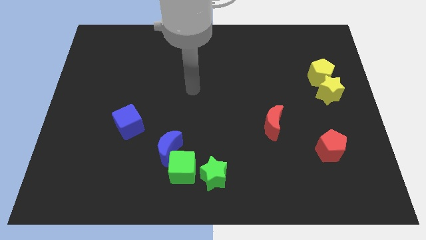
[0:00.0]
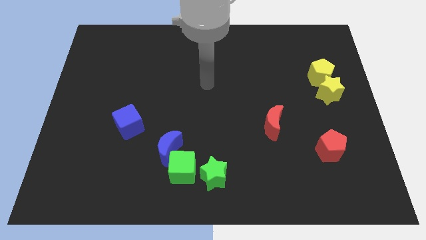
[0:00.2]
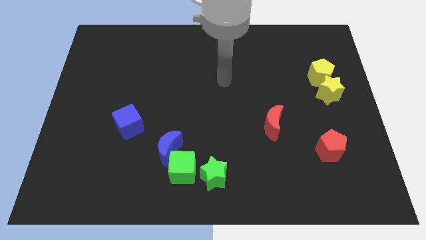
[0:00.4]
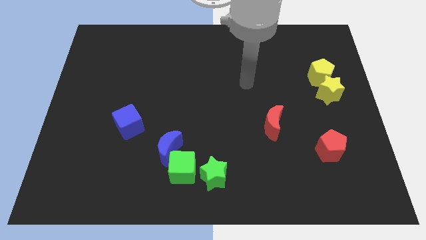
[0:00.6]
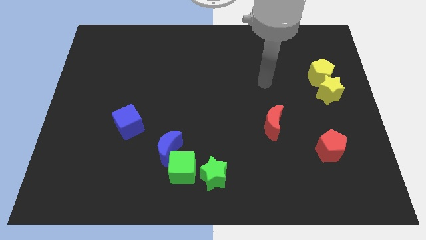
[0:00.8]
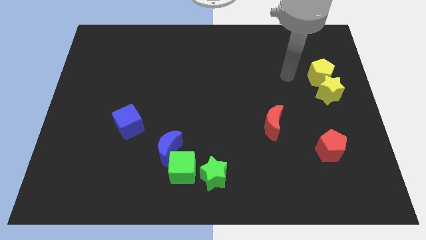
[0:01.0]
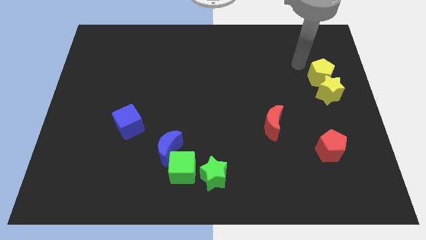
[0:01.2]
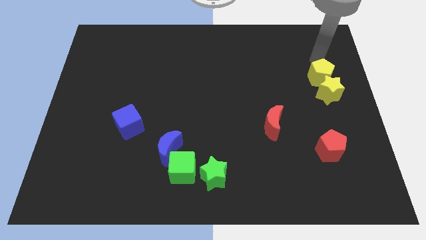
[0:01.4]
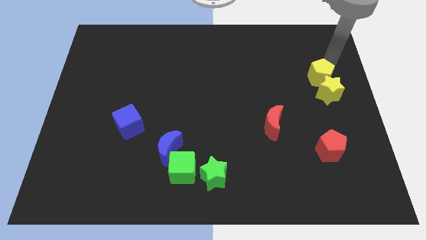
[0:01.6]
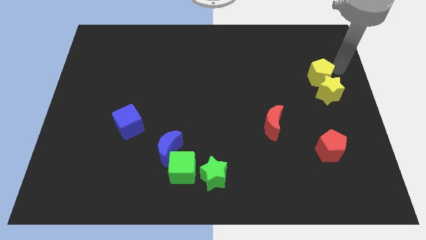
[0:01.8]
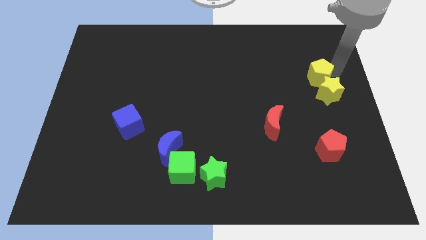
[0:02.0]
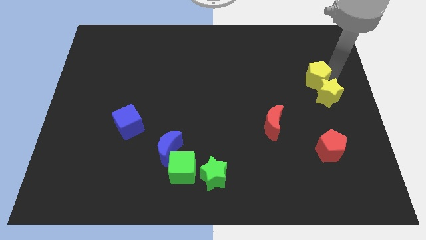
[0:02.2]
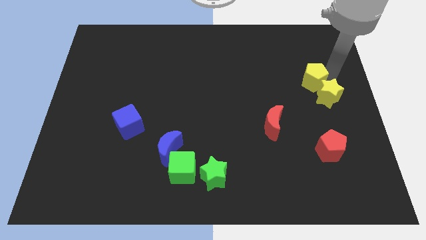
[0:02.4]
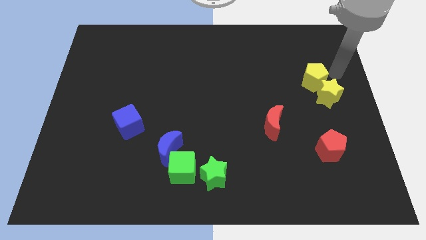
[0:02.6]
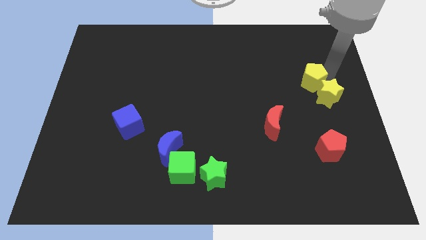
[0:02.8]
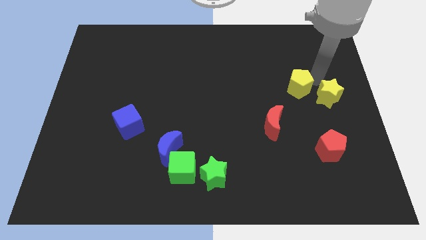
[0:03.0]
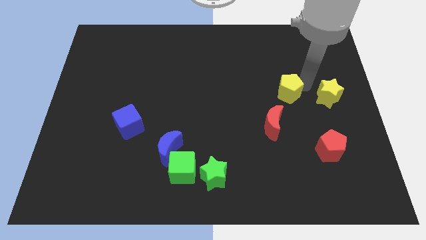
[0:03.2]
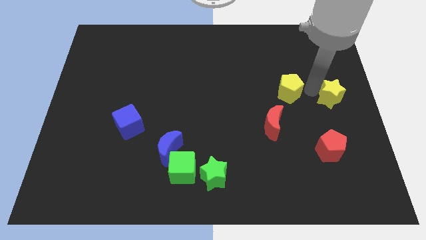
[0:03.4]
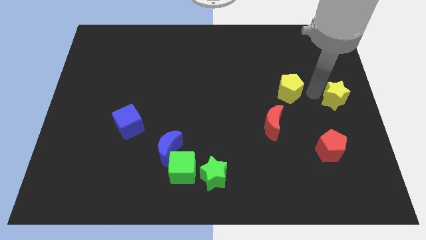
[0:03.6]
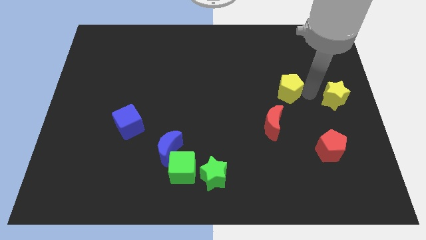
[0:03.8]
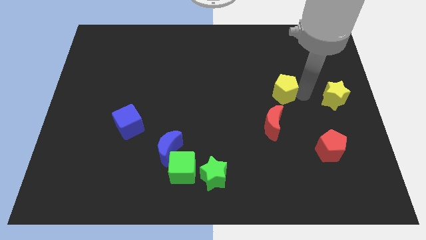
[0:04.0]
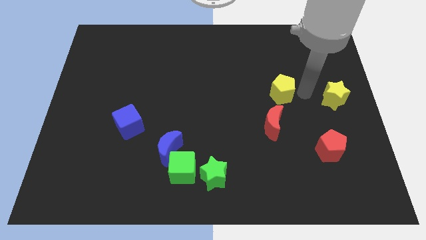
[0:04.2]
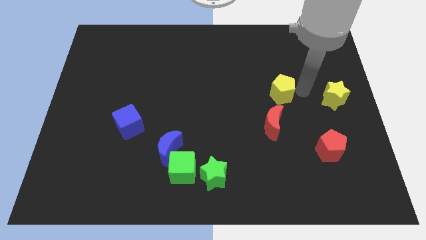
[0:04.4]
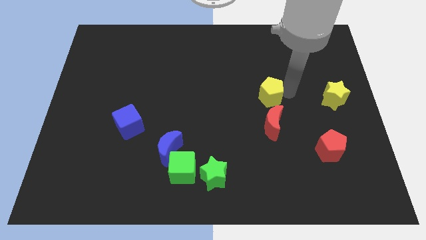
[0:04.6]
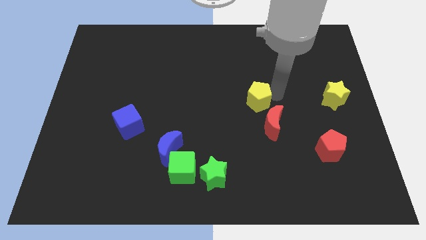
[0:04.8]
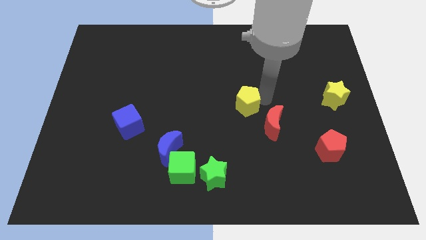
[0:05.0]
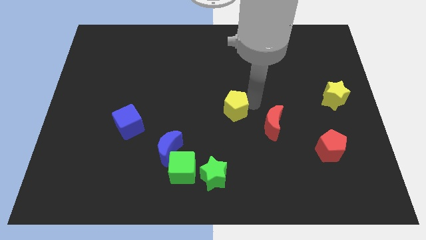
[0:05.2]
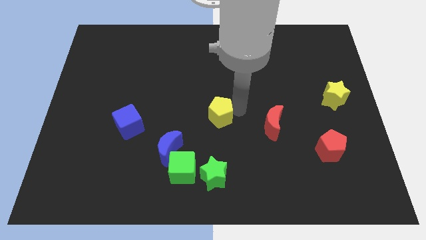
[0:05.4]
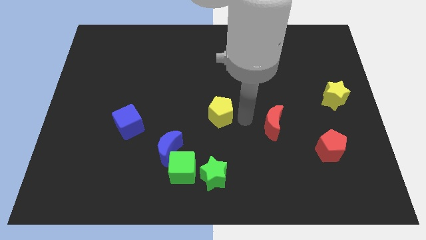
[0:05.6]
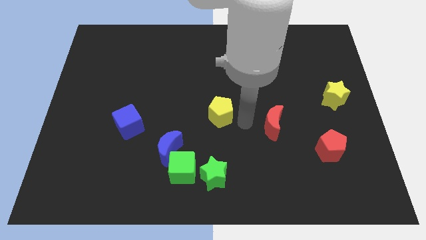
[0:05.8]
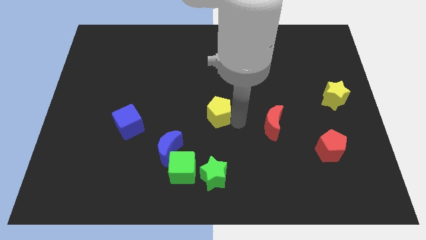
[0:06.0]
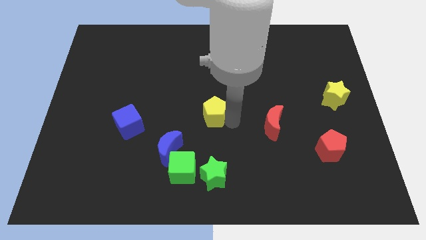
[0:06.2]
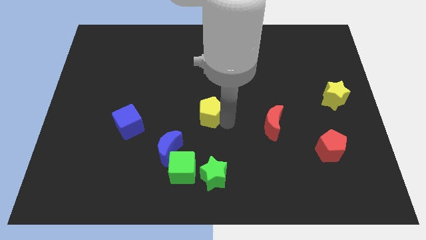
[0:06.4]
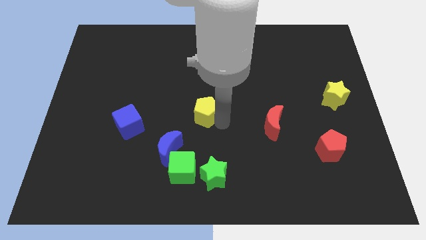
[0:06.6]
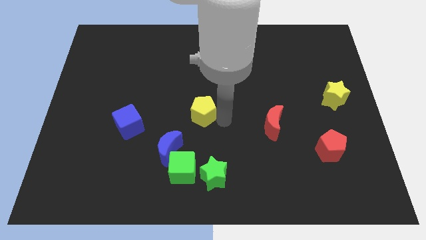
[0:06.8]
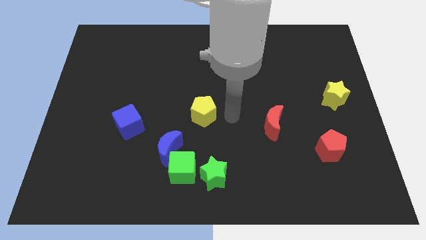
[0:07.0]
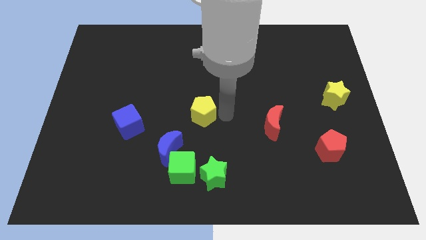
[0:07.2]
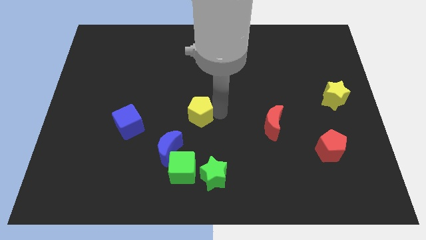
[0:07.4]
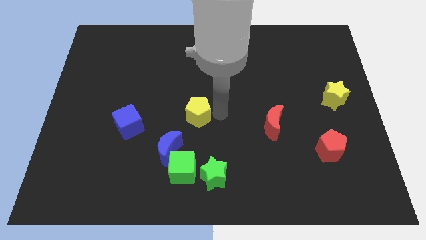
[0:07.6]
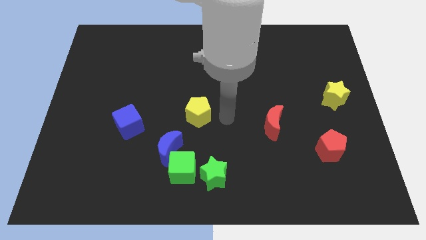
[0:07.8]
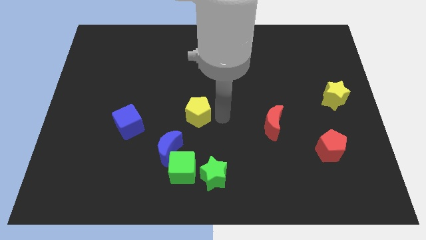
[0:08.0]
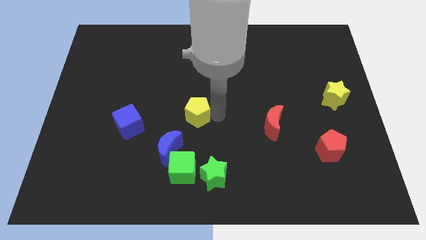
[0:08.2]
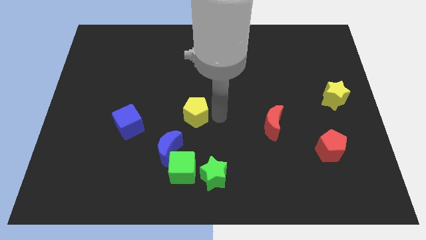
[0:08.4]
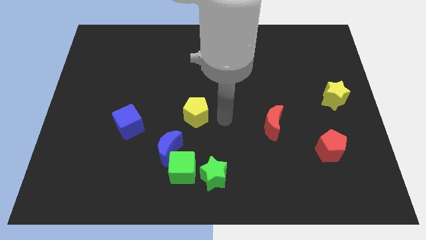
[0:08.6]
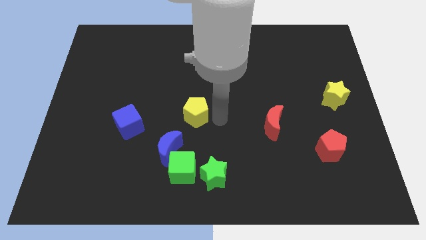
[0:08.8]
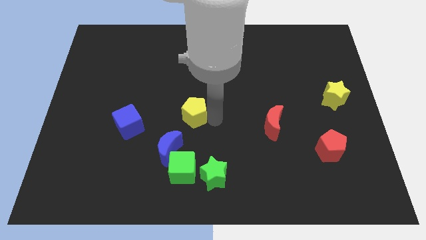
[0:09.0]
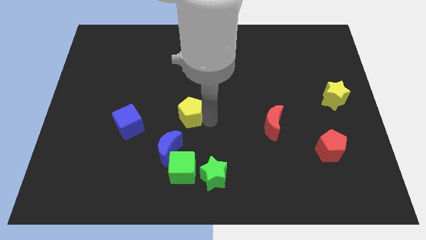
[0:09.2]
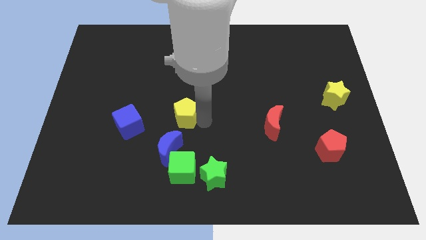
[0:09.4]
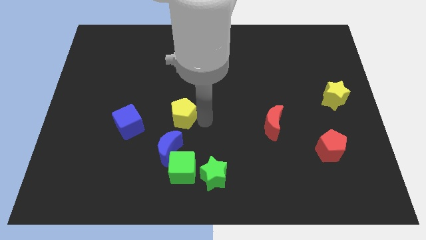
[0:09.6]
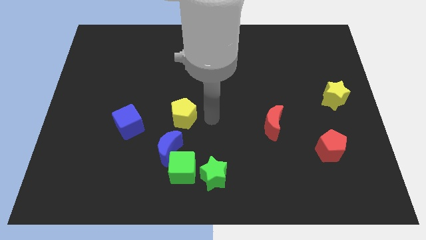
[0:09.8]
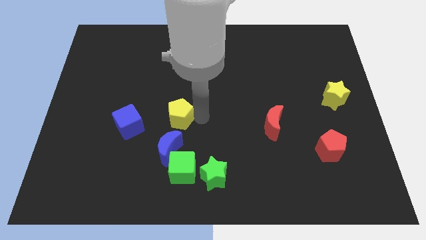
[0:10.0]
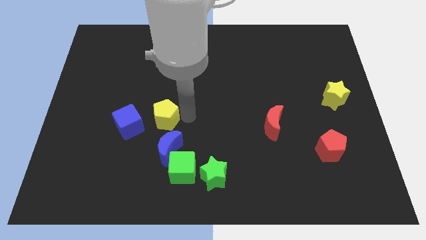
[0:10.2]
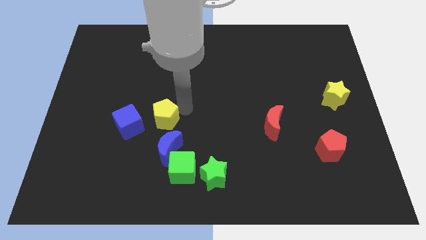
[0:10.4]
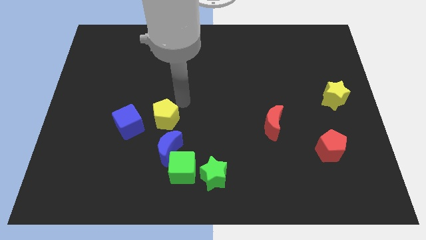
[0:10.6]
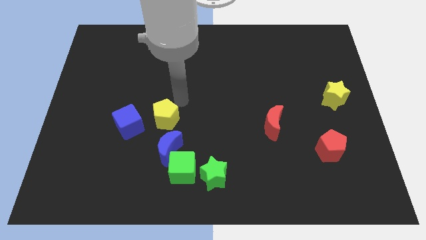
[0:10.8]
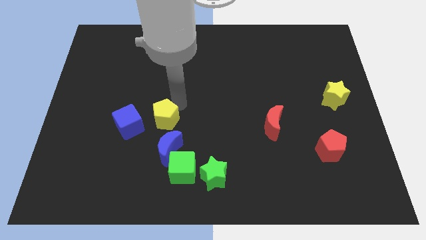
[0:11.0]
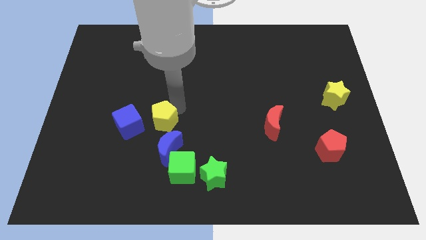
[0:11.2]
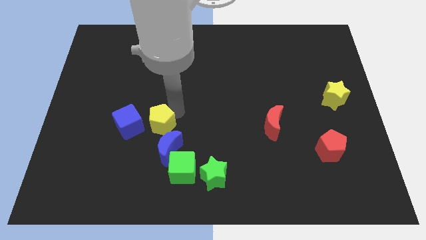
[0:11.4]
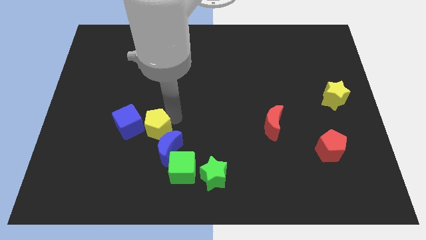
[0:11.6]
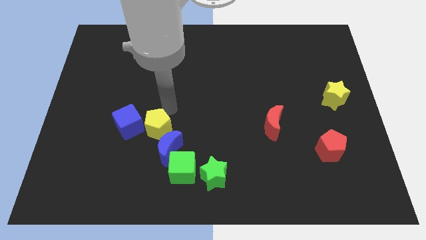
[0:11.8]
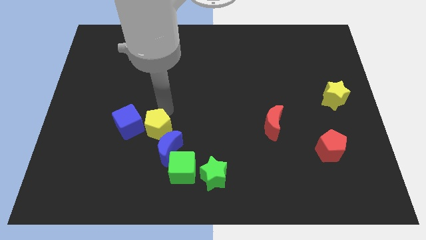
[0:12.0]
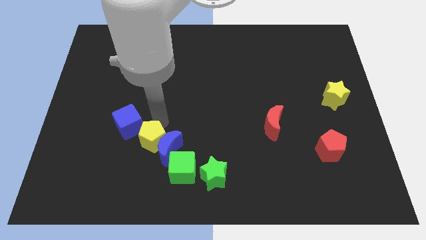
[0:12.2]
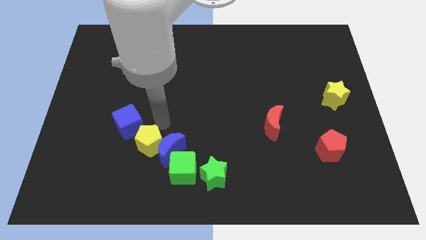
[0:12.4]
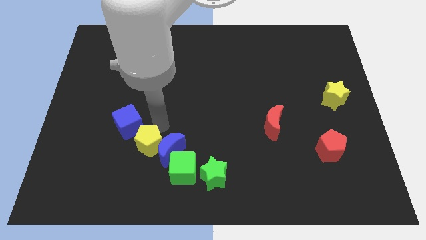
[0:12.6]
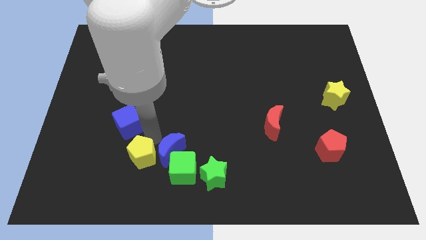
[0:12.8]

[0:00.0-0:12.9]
push the yellow pentagon to the left of the green cube

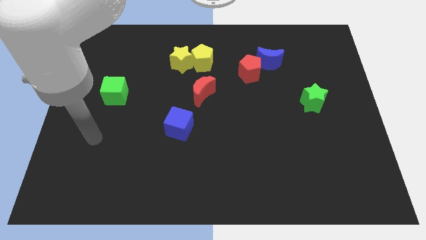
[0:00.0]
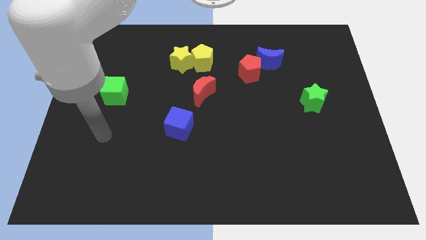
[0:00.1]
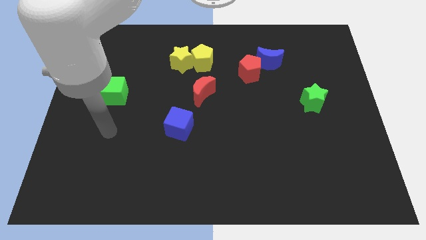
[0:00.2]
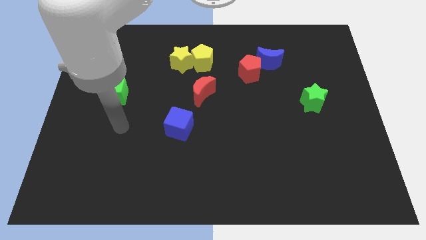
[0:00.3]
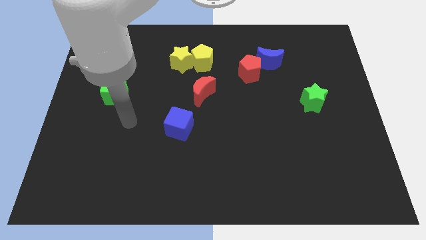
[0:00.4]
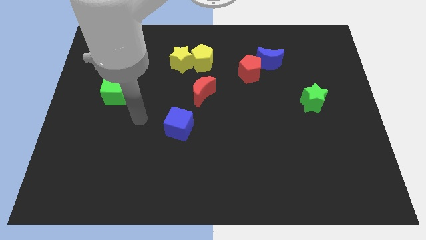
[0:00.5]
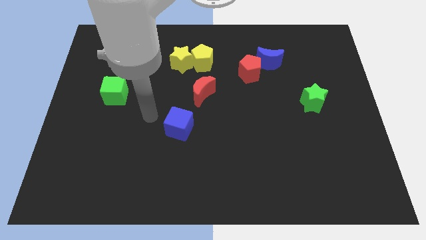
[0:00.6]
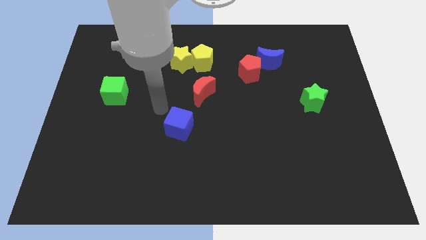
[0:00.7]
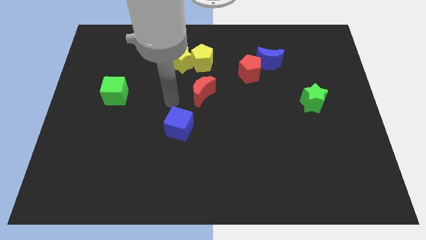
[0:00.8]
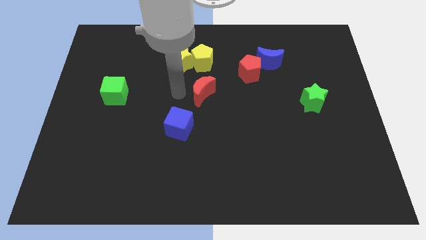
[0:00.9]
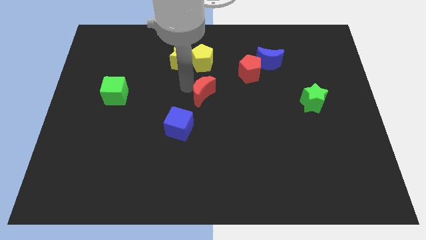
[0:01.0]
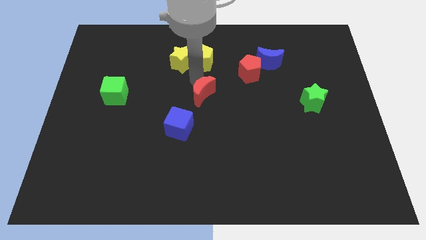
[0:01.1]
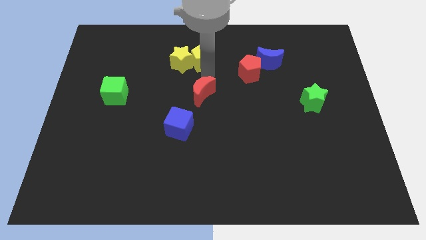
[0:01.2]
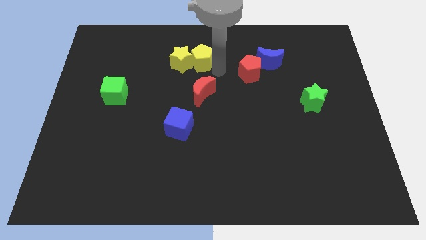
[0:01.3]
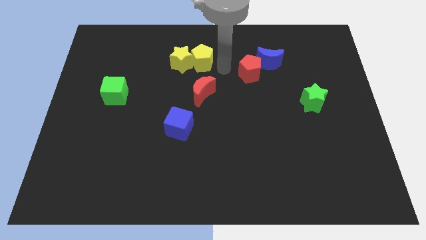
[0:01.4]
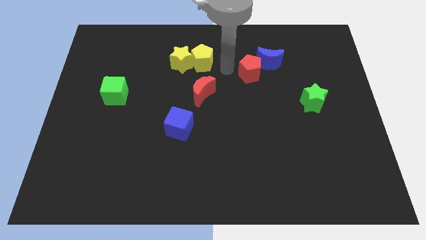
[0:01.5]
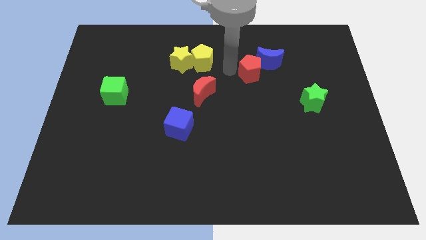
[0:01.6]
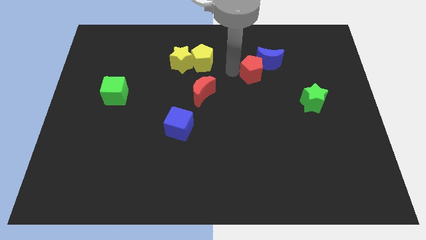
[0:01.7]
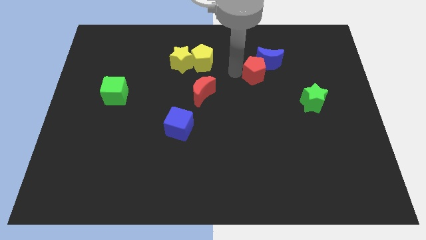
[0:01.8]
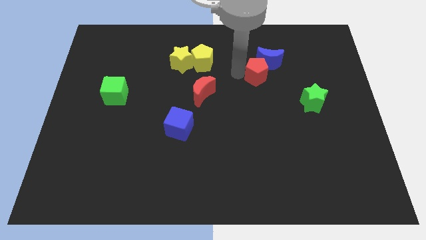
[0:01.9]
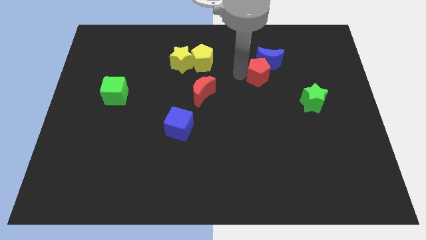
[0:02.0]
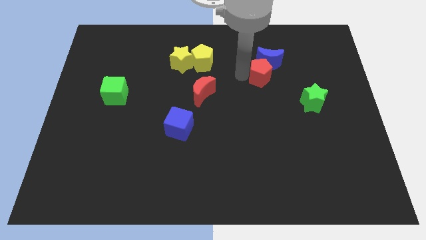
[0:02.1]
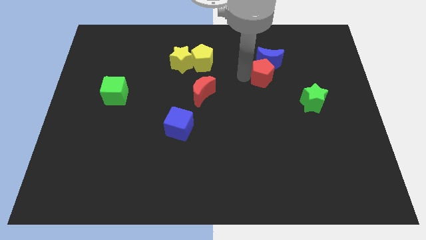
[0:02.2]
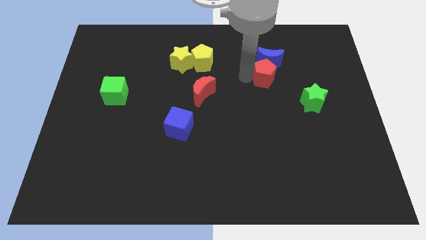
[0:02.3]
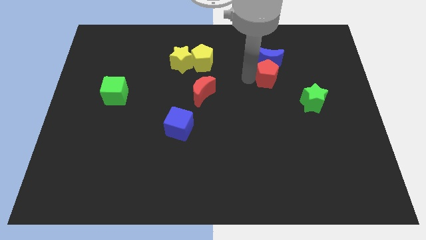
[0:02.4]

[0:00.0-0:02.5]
put the red pentagon diagonally down and to the right of the blue moon
